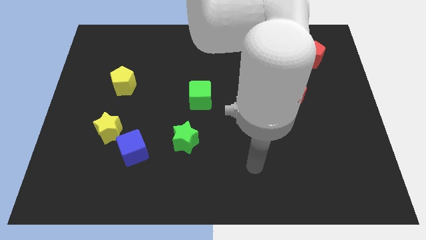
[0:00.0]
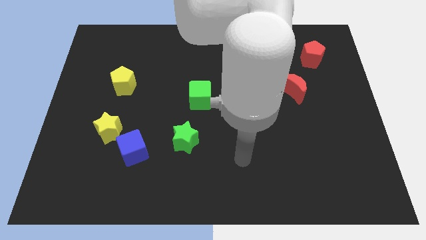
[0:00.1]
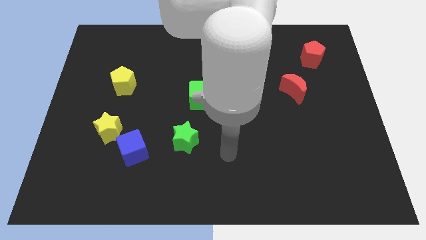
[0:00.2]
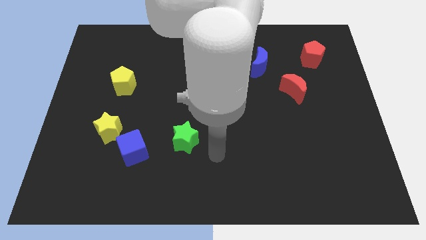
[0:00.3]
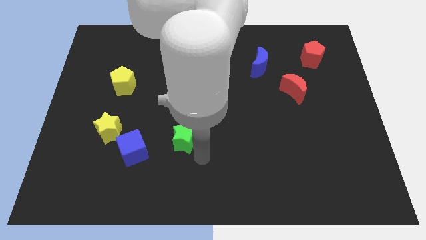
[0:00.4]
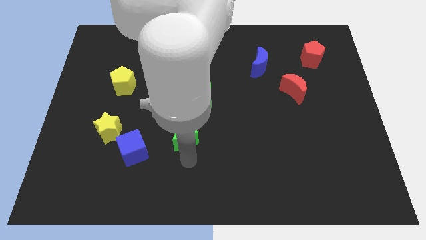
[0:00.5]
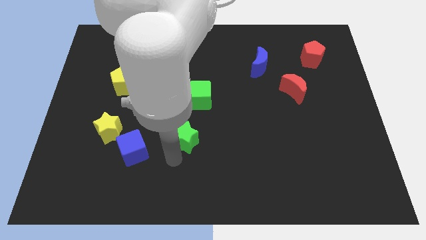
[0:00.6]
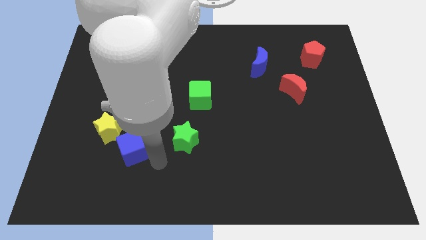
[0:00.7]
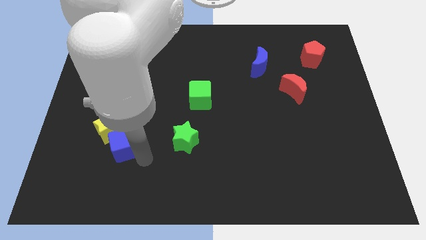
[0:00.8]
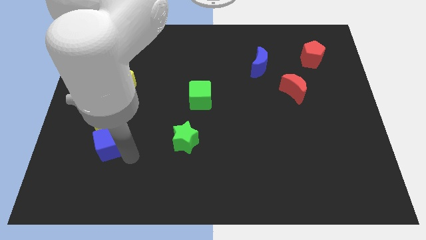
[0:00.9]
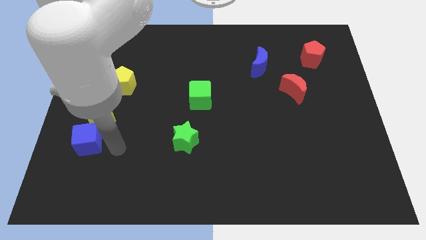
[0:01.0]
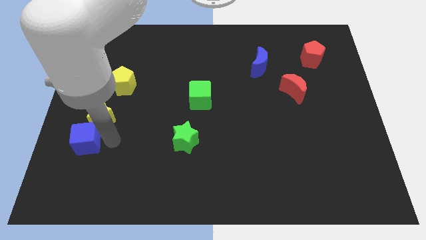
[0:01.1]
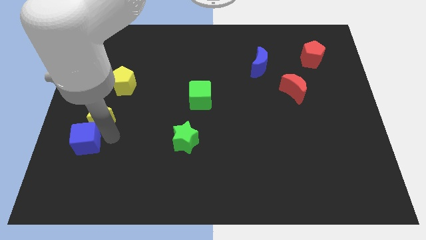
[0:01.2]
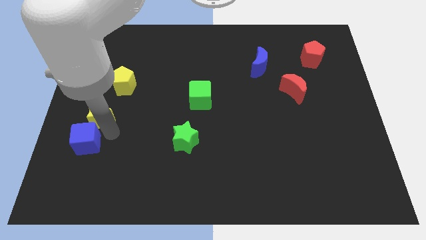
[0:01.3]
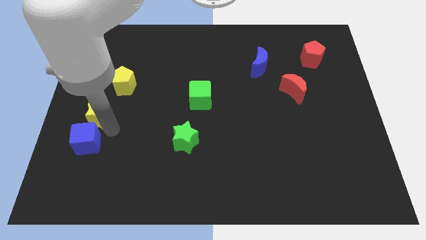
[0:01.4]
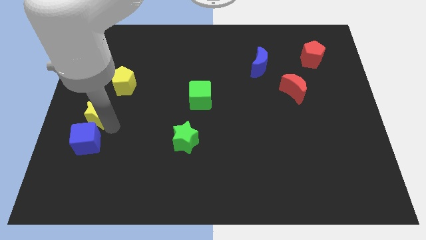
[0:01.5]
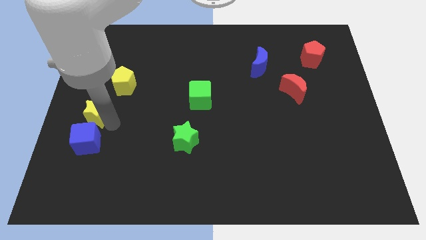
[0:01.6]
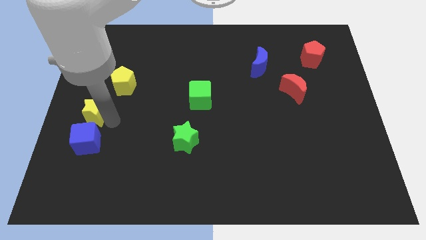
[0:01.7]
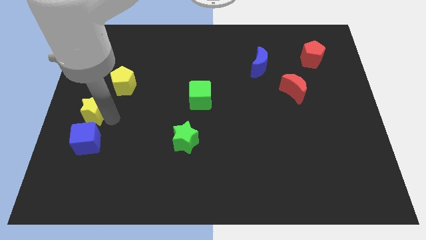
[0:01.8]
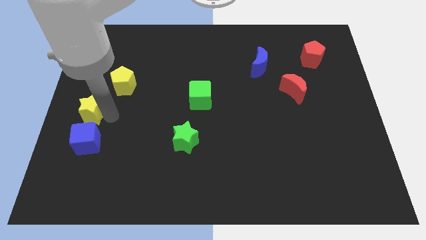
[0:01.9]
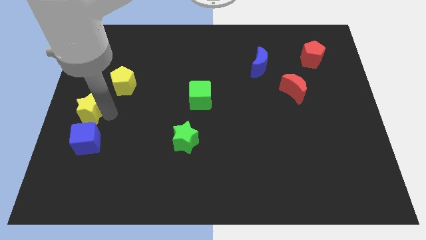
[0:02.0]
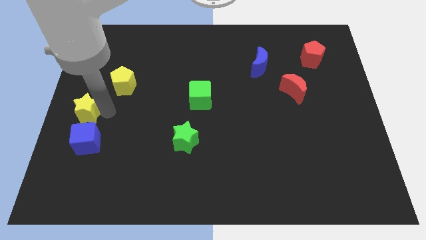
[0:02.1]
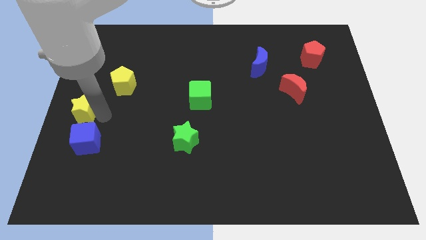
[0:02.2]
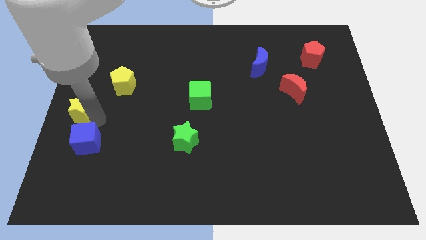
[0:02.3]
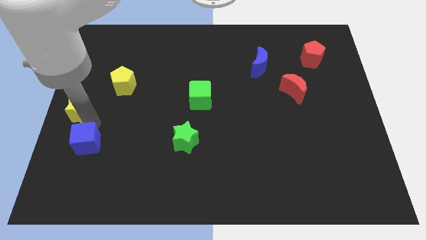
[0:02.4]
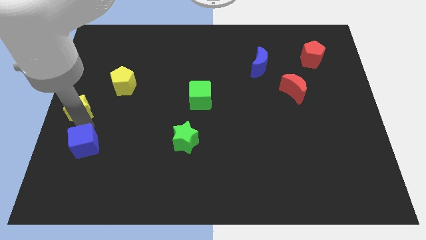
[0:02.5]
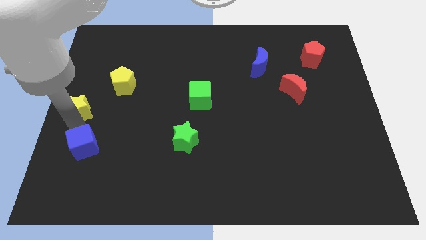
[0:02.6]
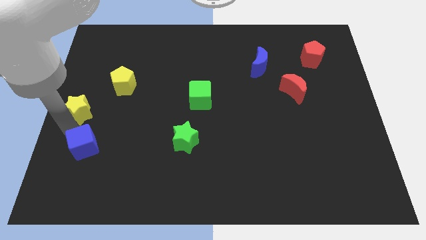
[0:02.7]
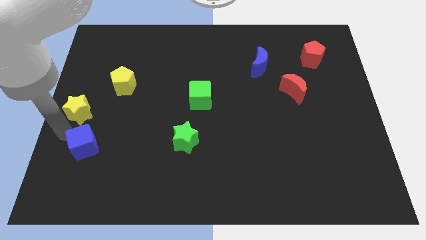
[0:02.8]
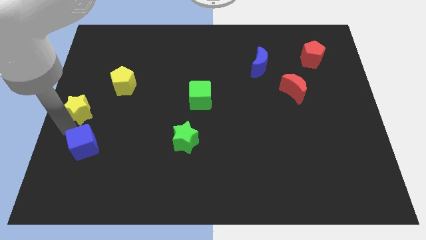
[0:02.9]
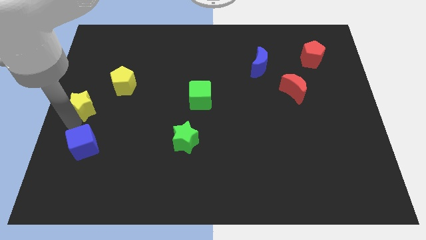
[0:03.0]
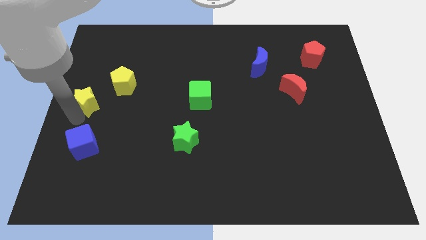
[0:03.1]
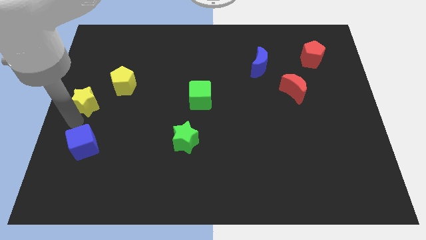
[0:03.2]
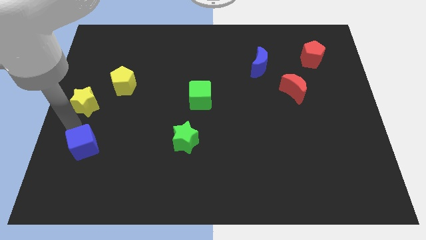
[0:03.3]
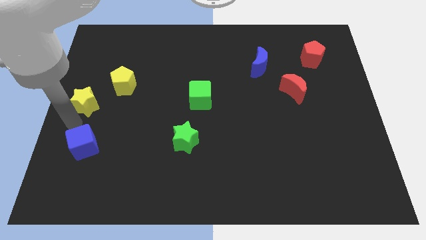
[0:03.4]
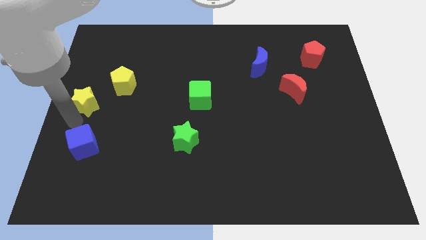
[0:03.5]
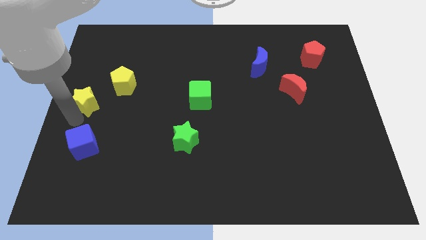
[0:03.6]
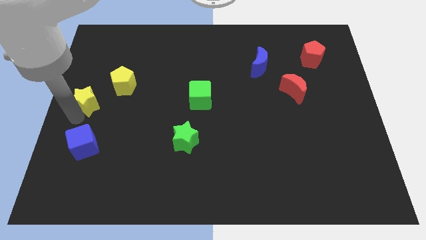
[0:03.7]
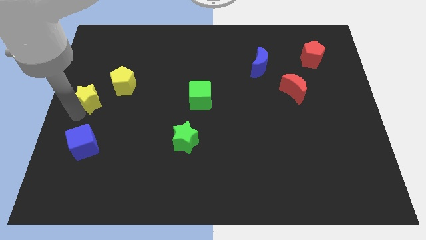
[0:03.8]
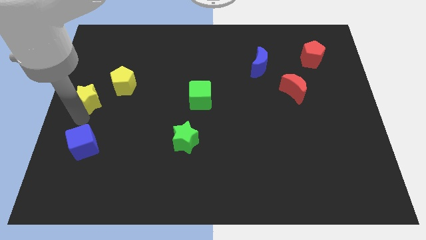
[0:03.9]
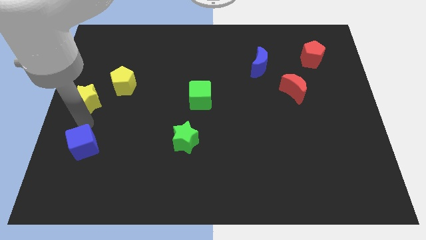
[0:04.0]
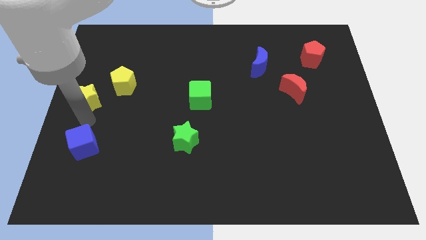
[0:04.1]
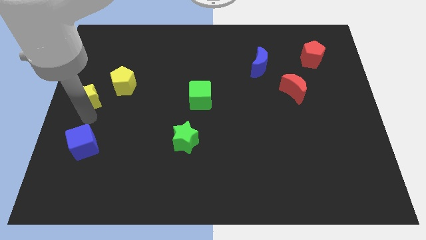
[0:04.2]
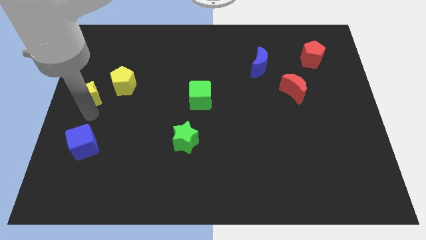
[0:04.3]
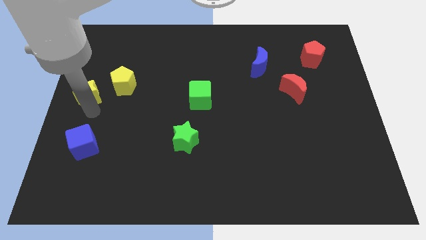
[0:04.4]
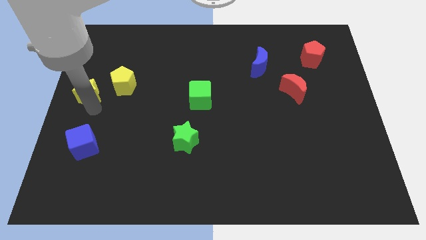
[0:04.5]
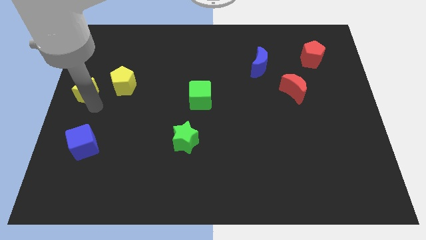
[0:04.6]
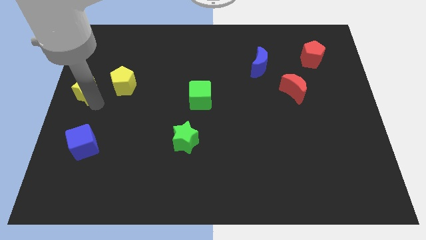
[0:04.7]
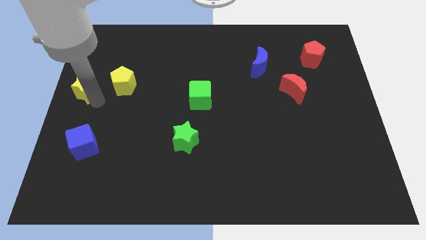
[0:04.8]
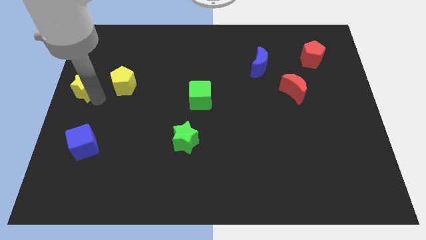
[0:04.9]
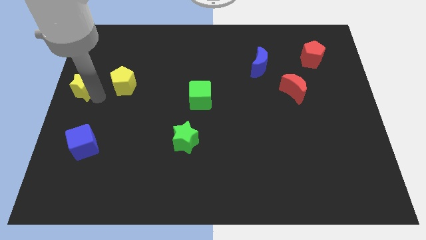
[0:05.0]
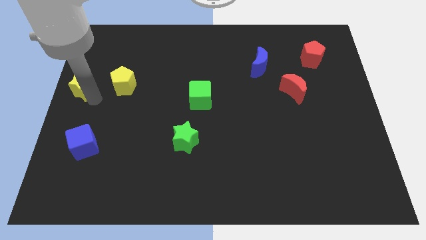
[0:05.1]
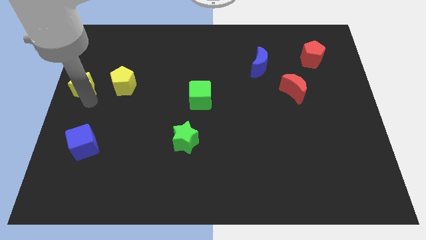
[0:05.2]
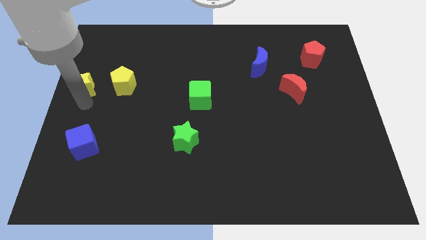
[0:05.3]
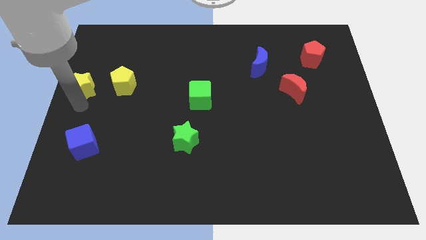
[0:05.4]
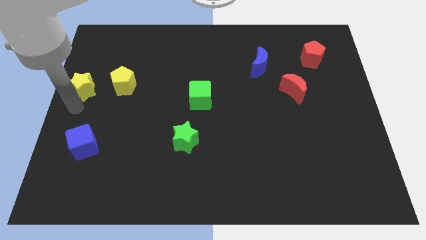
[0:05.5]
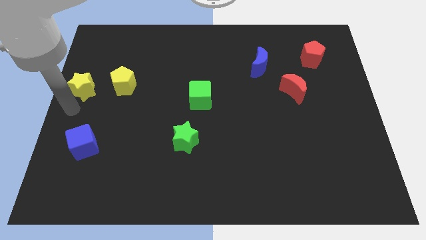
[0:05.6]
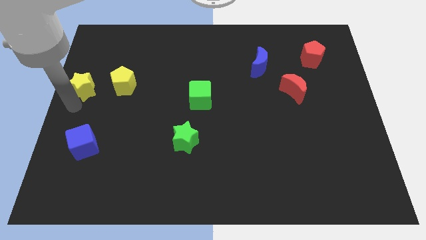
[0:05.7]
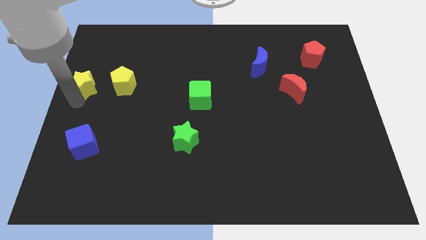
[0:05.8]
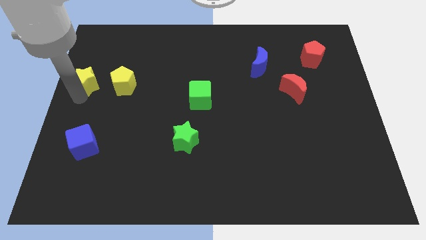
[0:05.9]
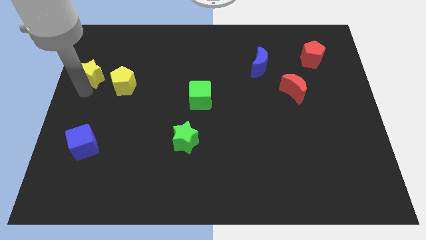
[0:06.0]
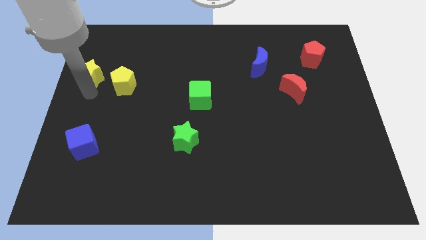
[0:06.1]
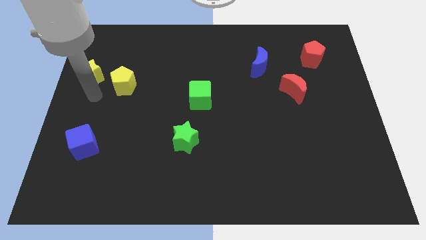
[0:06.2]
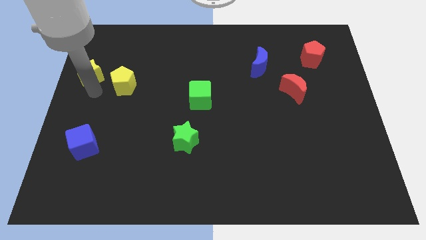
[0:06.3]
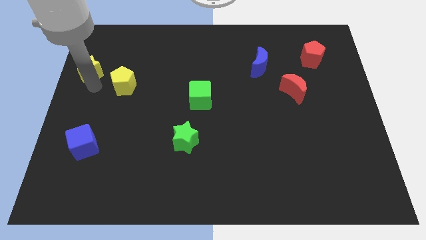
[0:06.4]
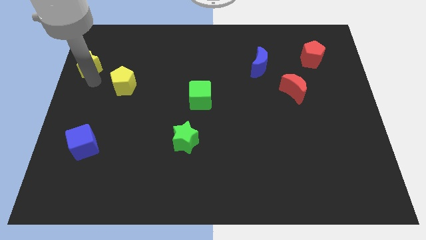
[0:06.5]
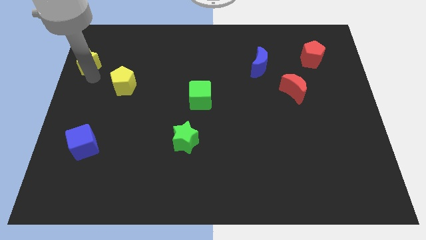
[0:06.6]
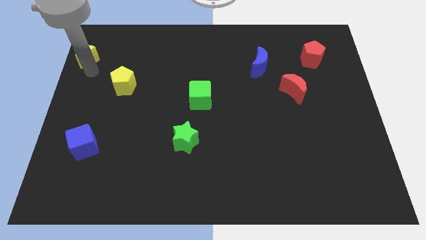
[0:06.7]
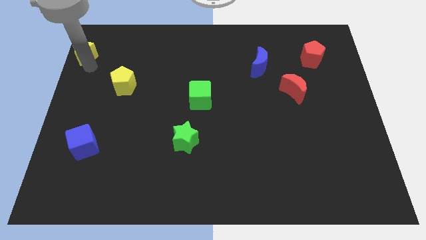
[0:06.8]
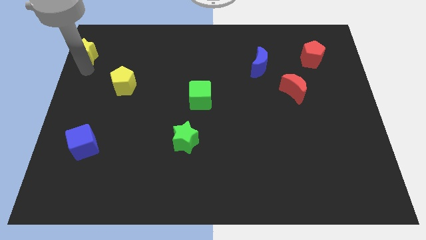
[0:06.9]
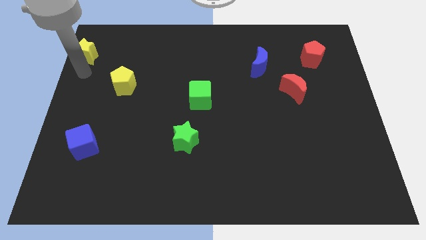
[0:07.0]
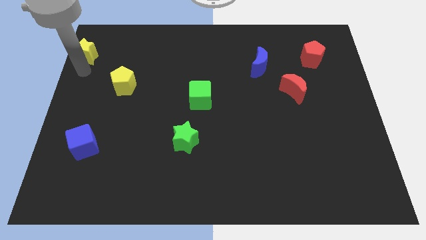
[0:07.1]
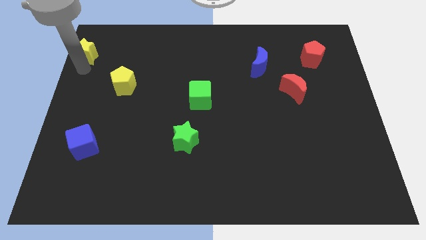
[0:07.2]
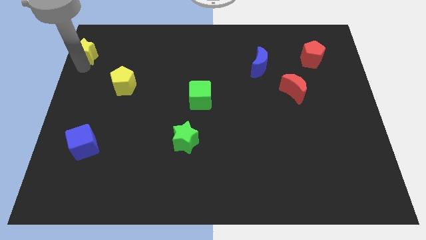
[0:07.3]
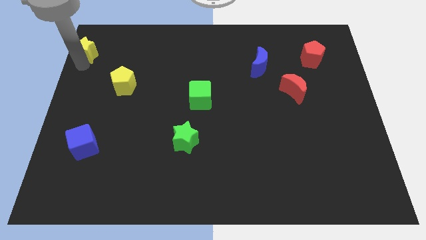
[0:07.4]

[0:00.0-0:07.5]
push the yellow star to the top left of the board
